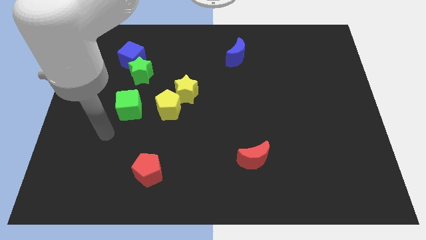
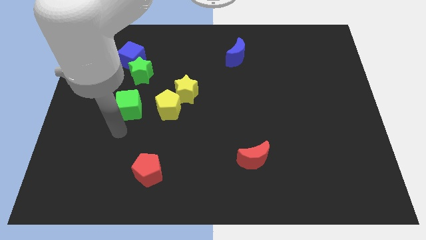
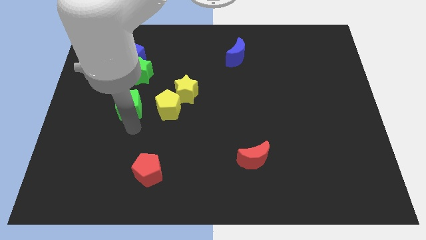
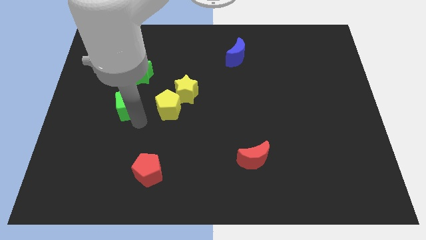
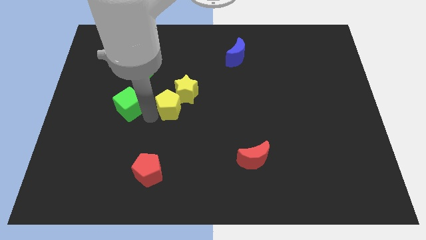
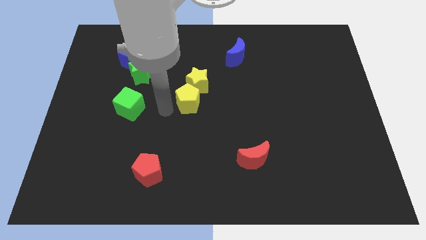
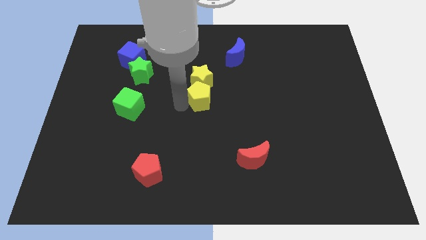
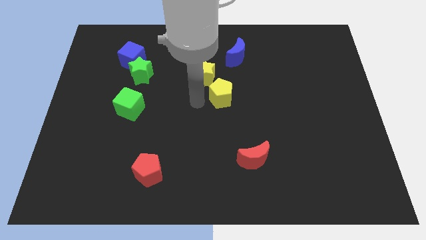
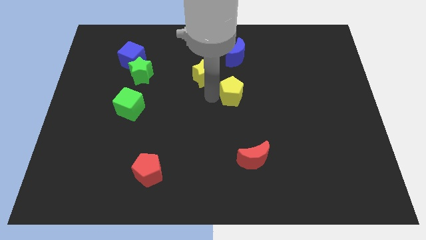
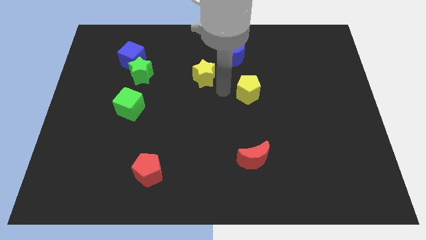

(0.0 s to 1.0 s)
move the yellow star away from the yellow pentagon

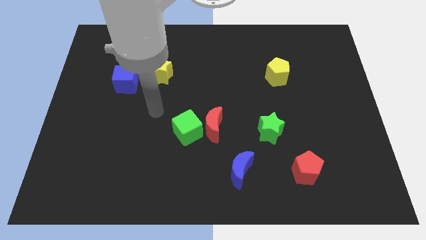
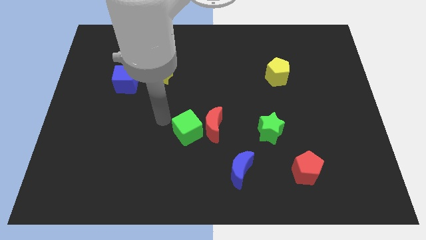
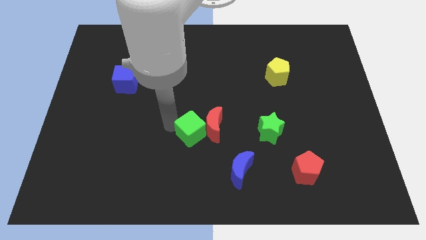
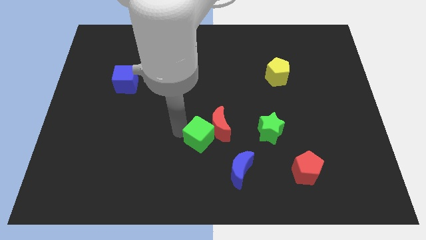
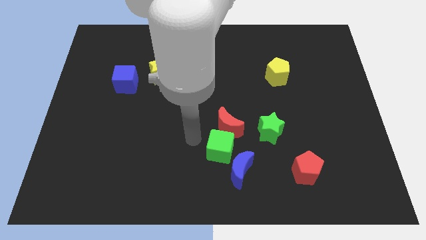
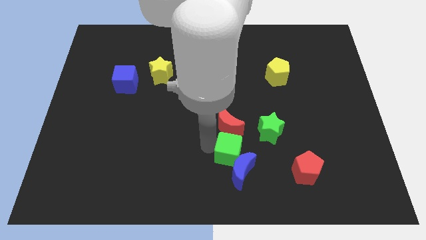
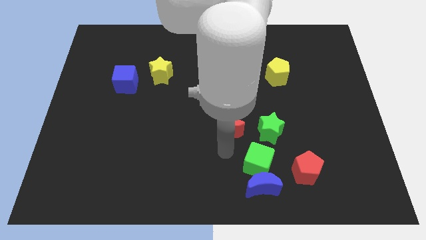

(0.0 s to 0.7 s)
move the red moon away from the green cube

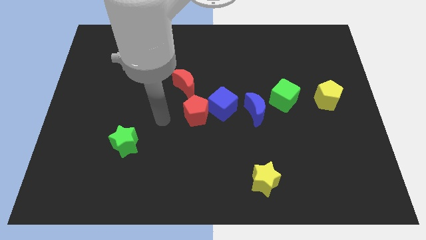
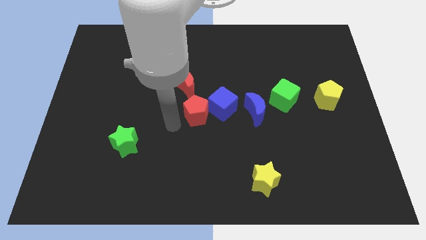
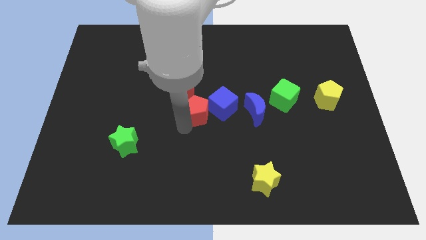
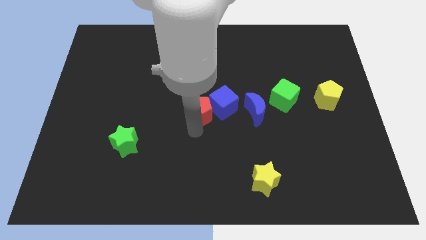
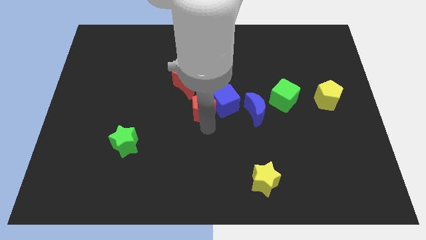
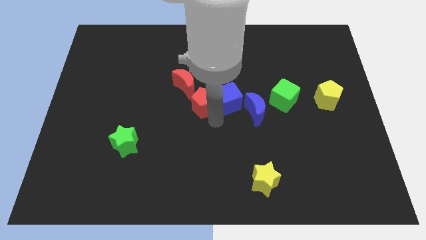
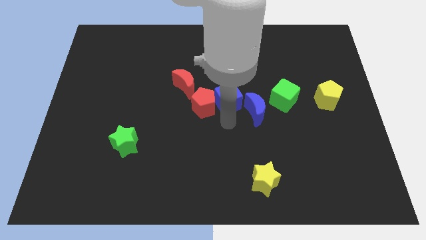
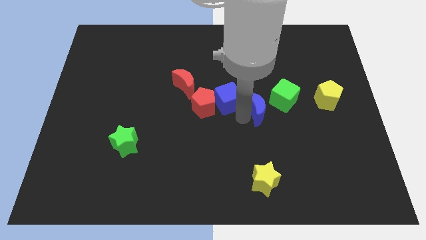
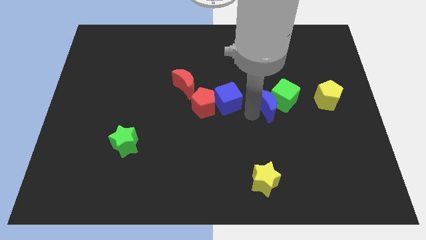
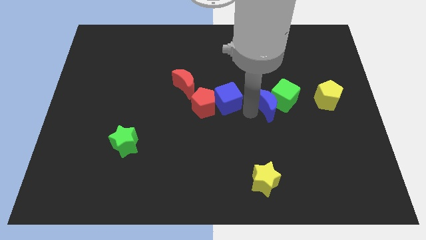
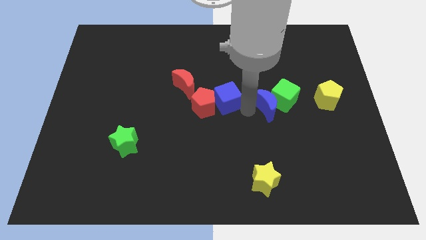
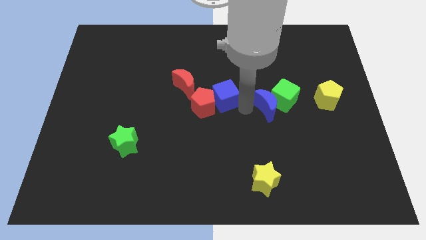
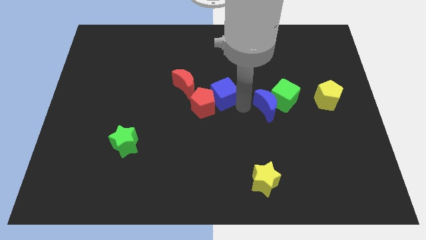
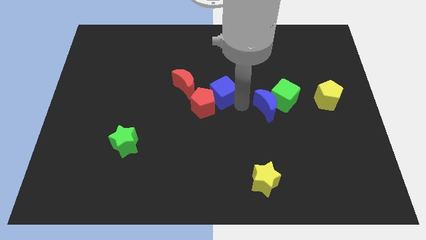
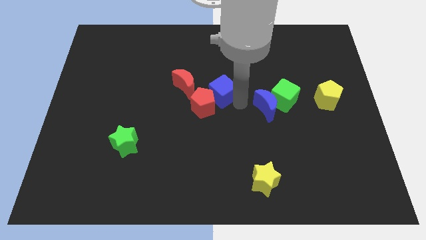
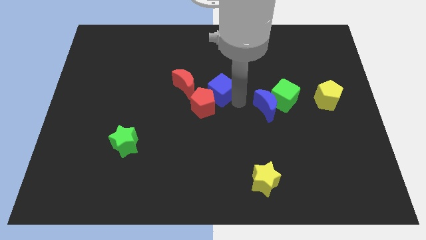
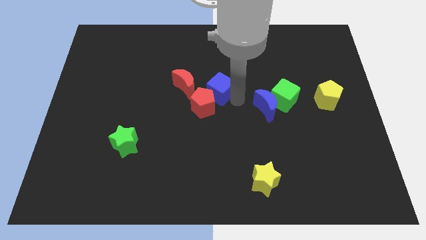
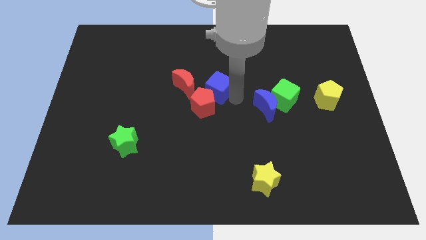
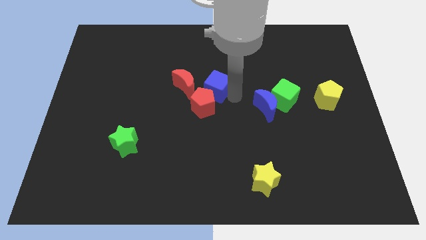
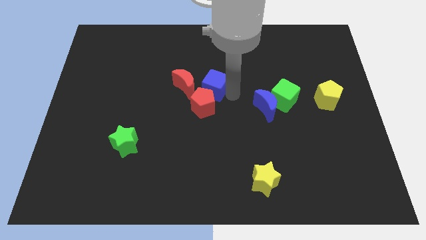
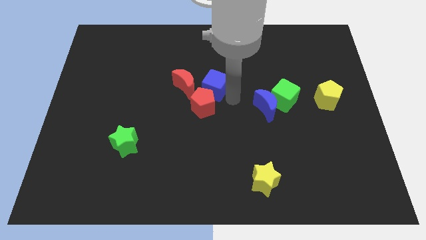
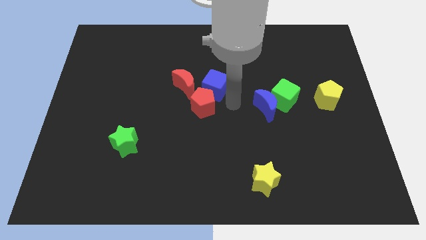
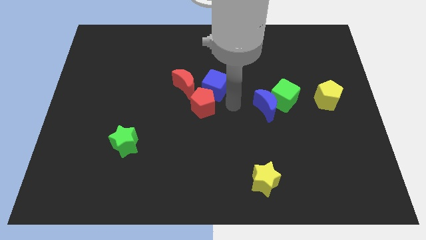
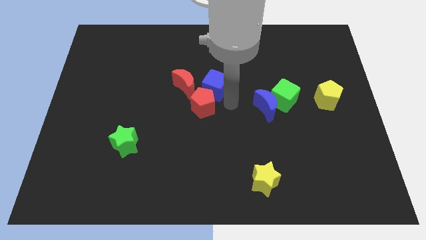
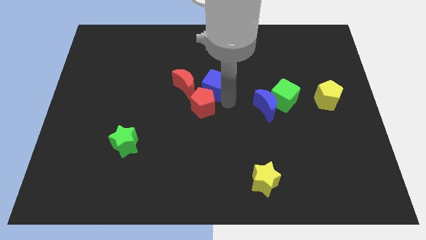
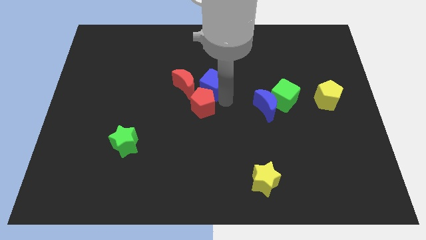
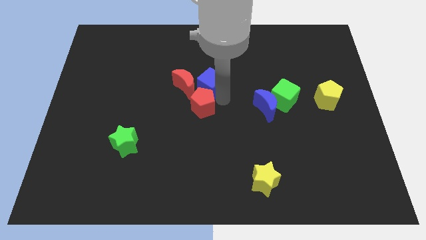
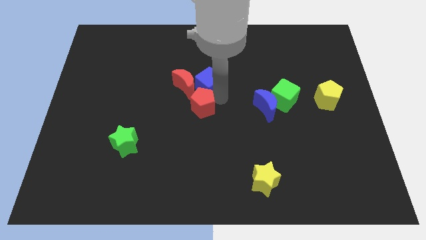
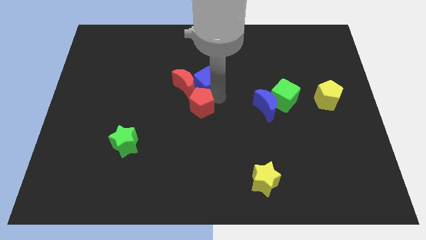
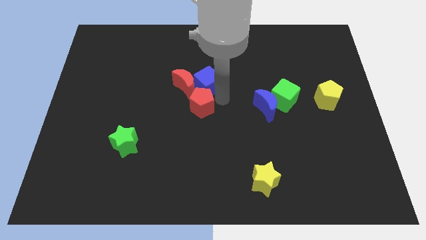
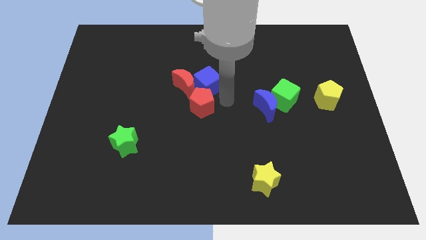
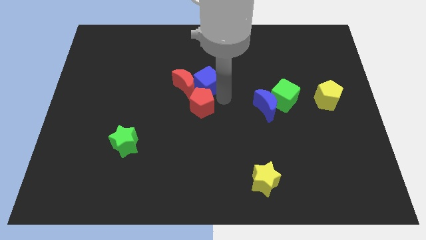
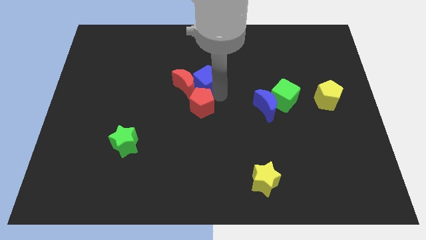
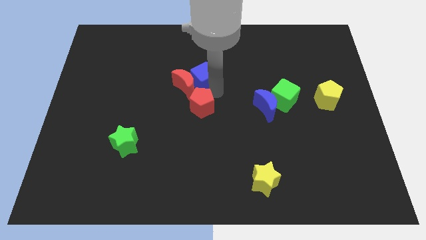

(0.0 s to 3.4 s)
separate the blue cube from the red pentagon and blue moon

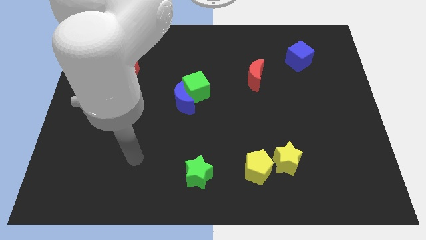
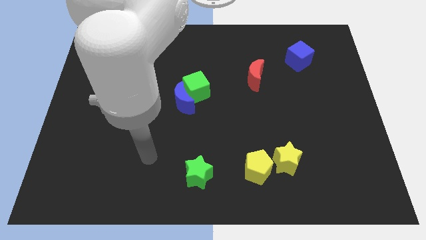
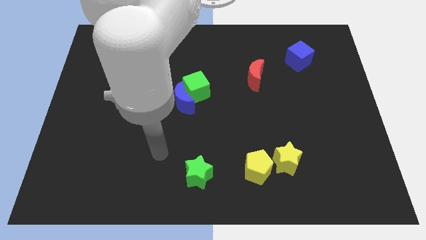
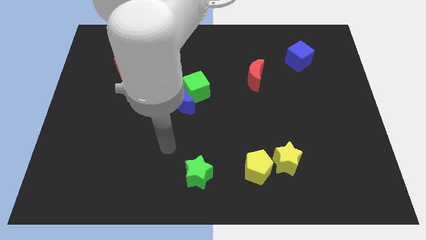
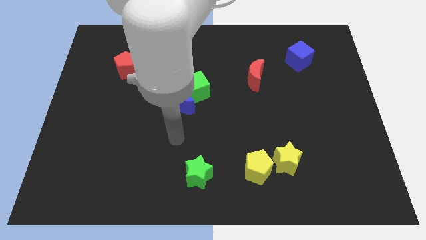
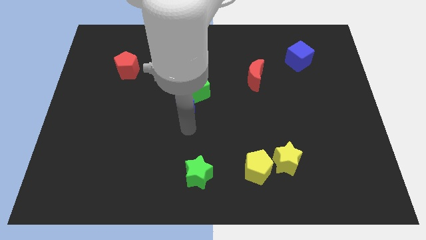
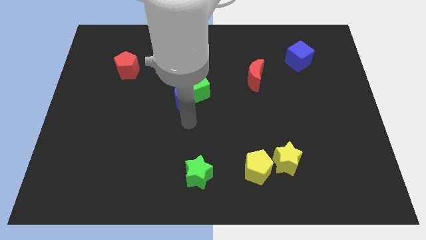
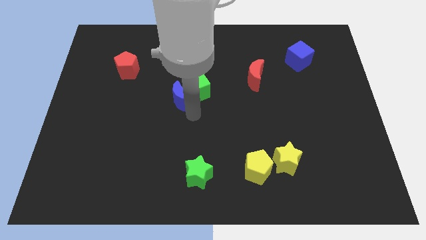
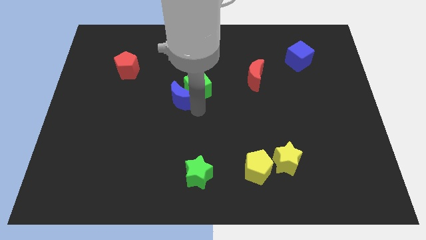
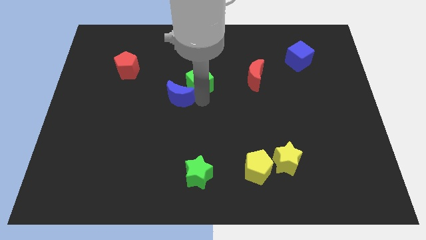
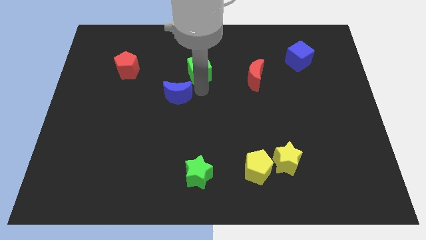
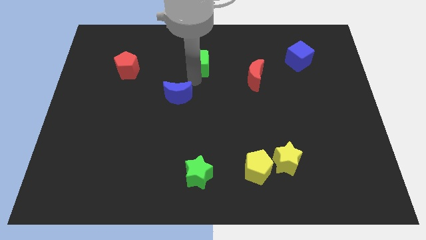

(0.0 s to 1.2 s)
pull the blue moon apart from the green cube

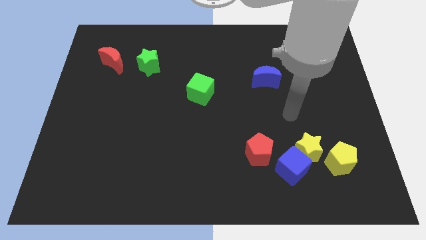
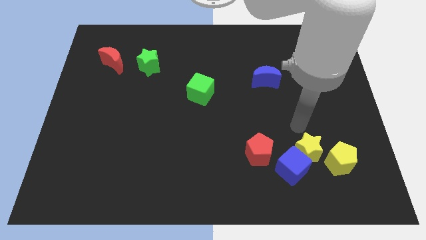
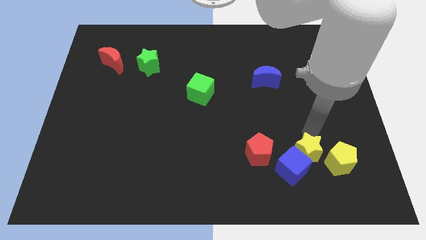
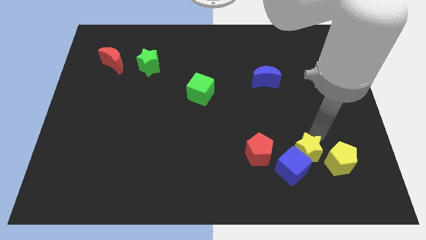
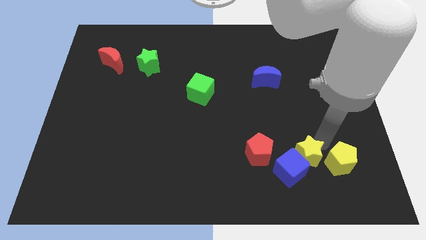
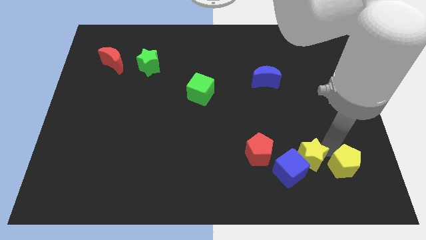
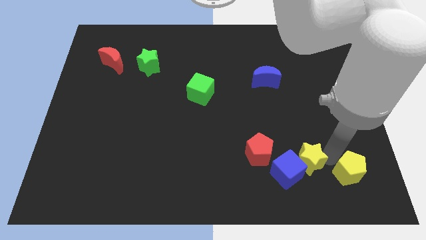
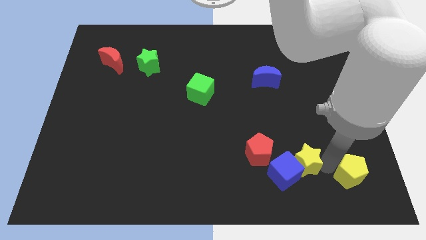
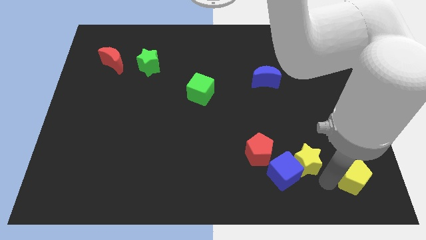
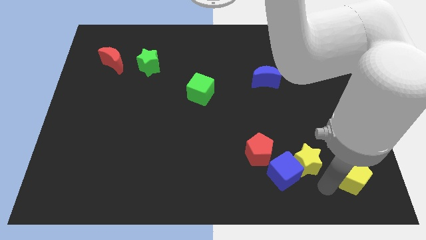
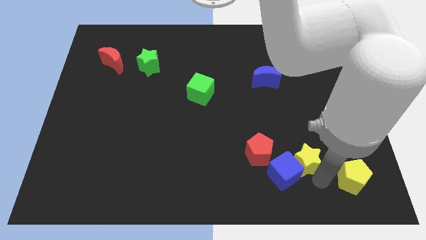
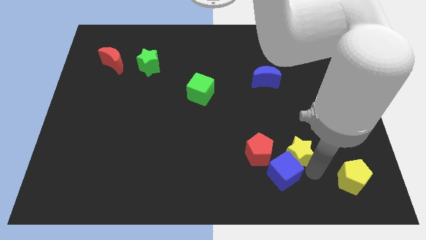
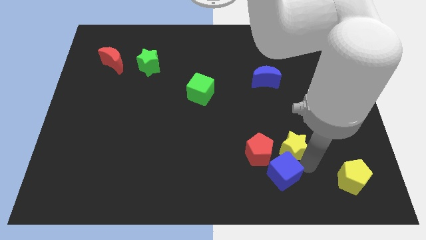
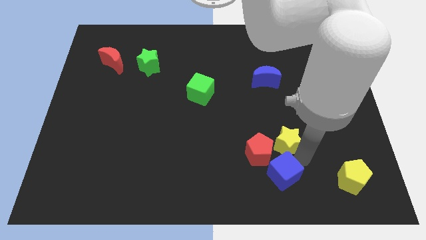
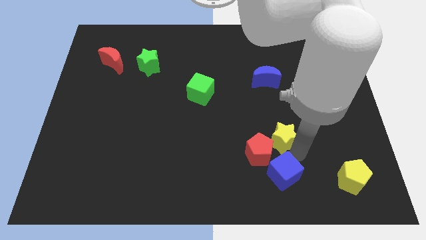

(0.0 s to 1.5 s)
separate the yellow star from the blue cube and yellow pentagon

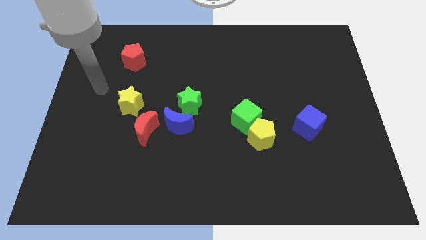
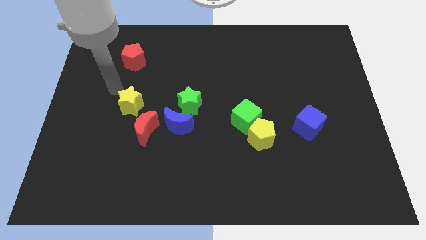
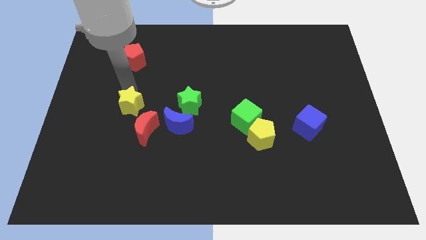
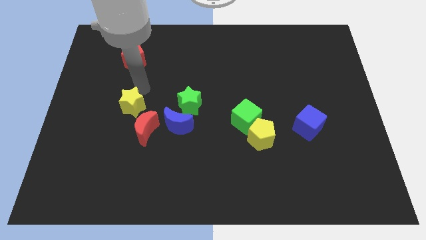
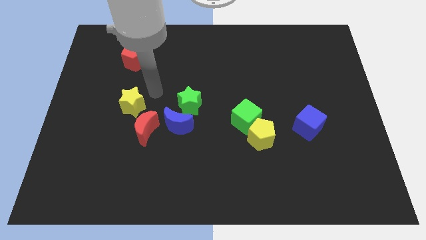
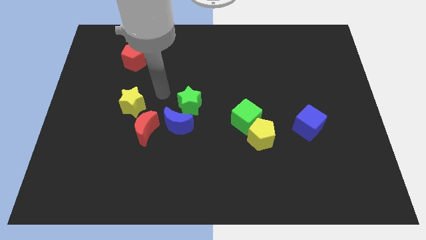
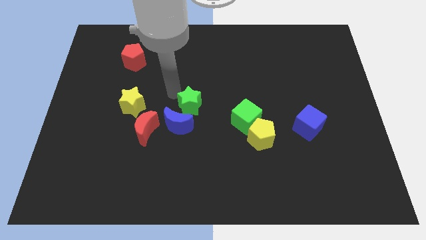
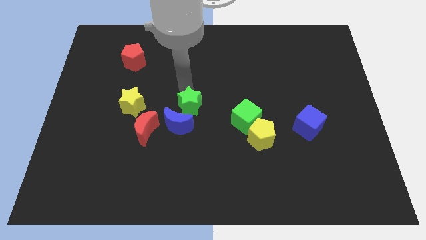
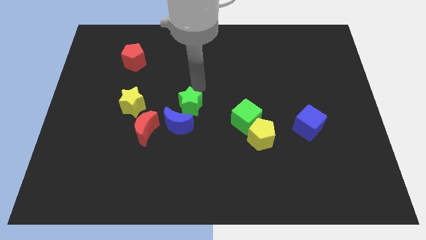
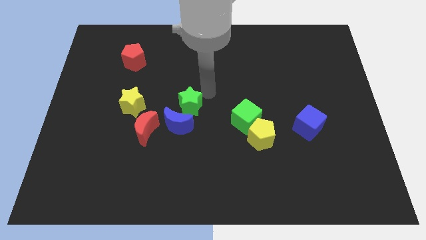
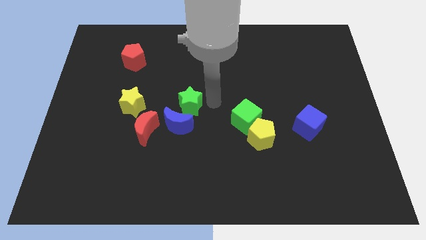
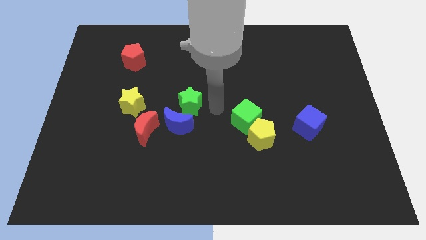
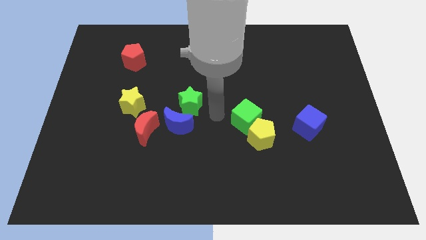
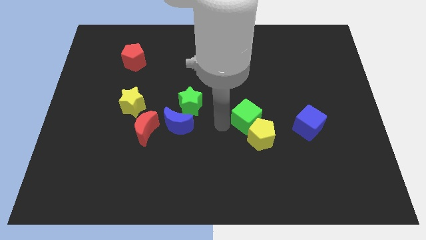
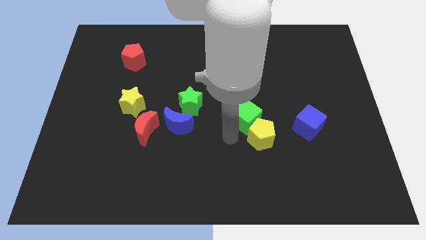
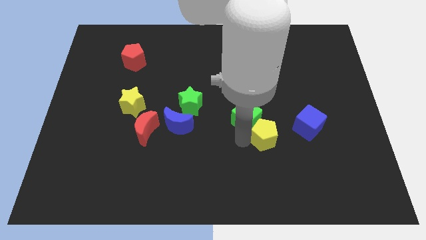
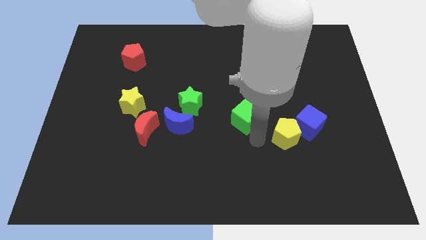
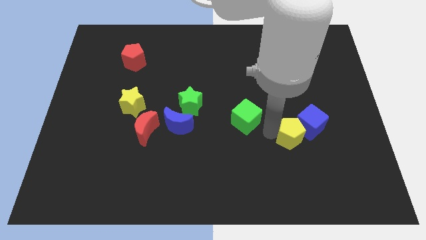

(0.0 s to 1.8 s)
pull the green cube apart from the yellow pentagon
